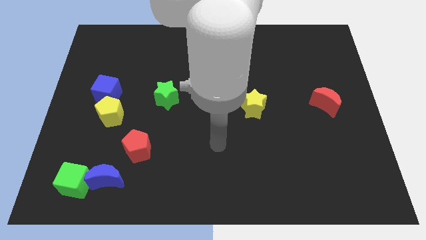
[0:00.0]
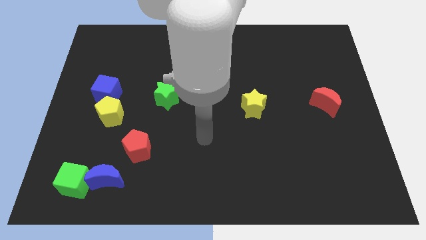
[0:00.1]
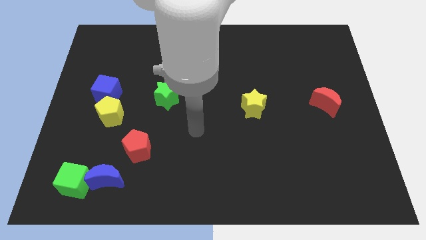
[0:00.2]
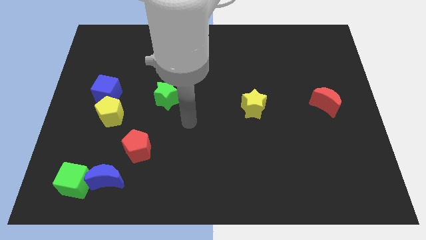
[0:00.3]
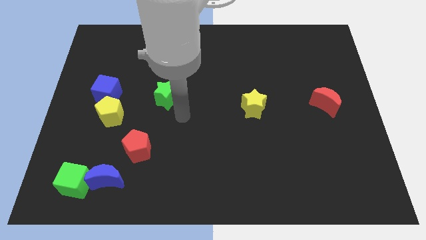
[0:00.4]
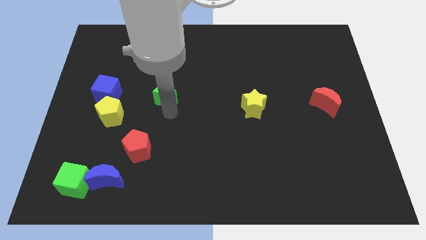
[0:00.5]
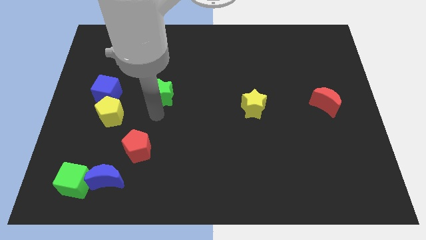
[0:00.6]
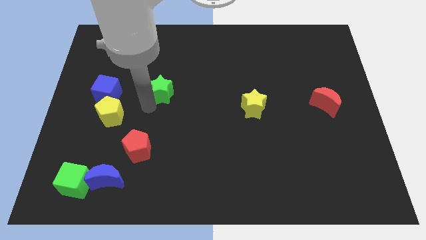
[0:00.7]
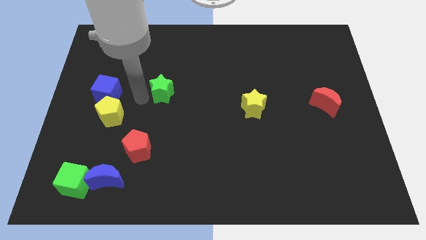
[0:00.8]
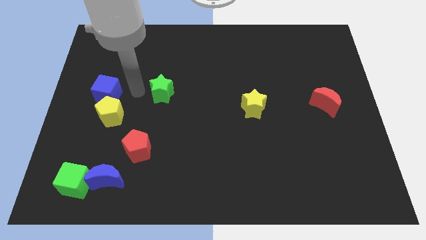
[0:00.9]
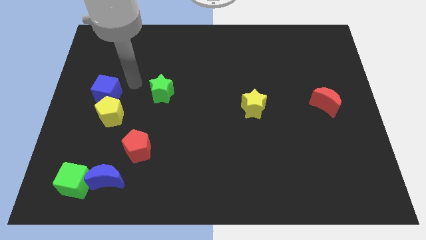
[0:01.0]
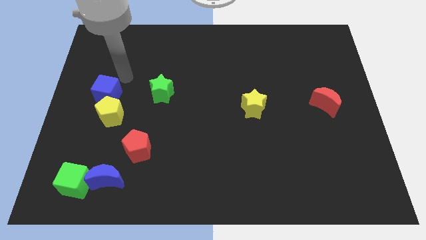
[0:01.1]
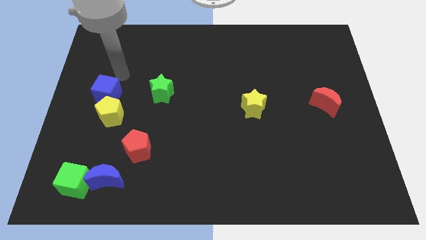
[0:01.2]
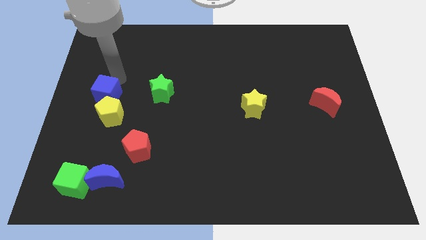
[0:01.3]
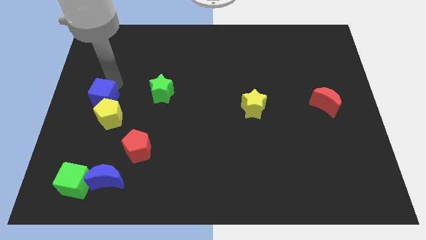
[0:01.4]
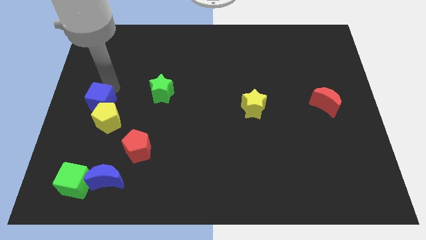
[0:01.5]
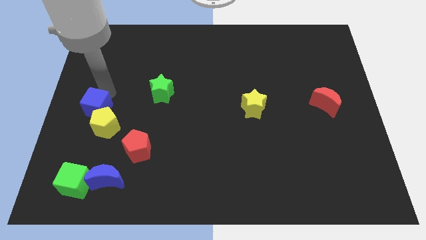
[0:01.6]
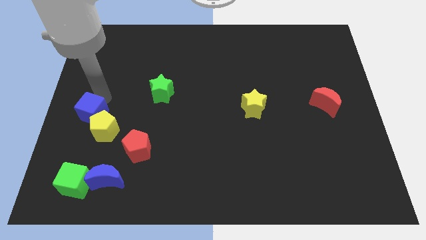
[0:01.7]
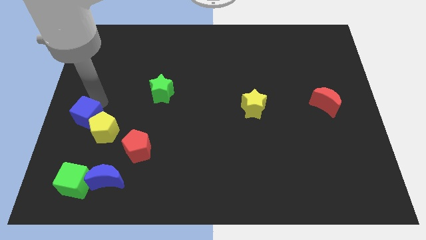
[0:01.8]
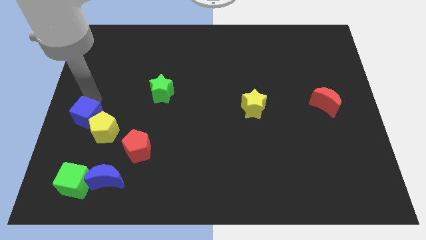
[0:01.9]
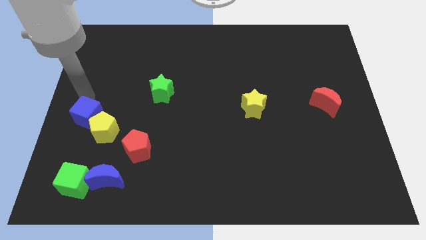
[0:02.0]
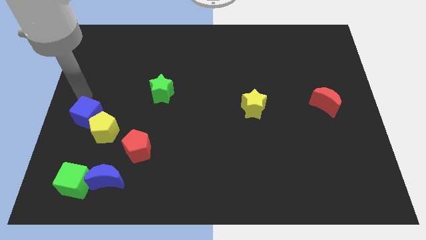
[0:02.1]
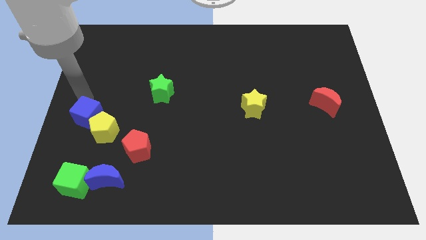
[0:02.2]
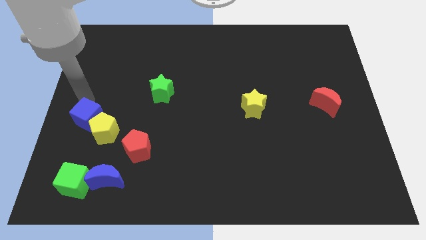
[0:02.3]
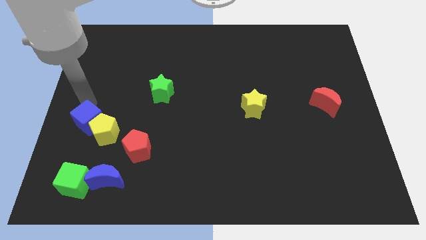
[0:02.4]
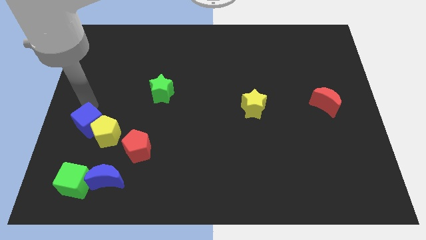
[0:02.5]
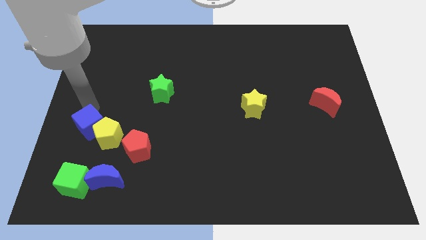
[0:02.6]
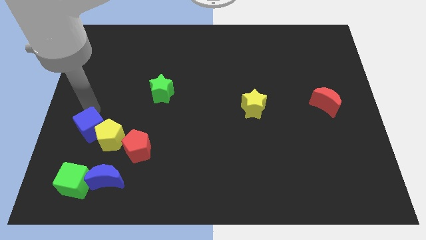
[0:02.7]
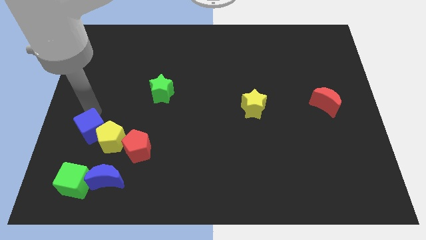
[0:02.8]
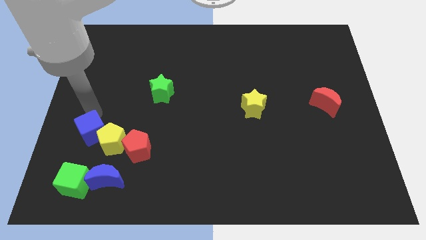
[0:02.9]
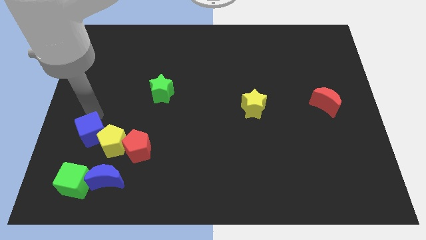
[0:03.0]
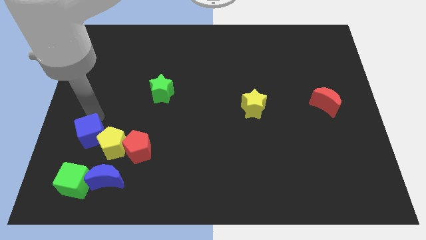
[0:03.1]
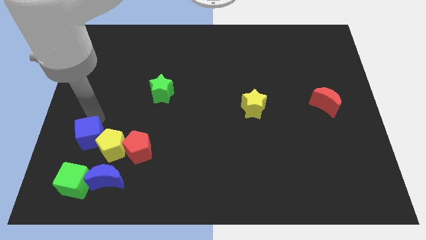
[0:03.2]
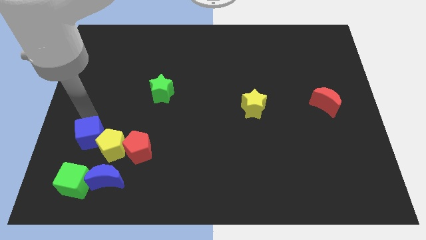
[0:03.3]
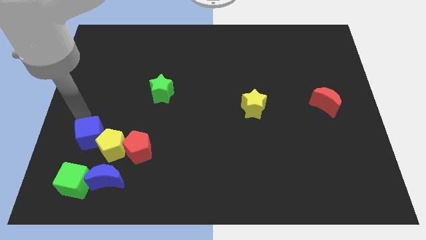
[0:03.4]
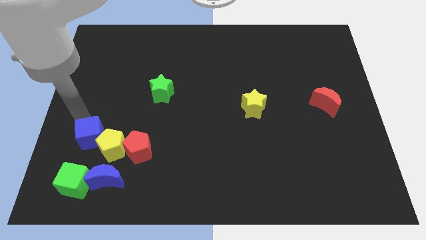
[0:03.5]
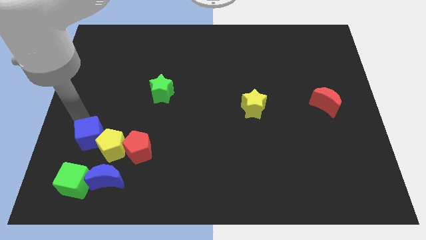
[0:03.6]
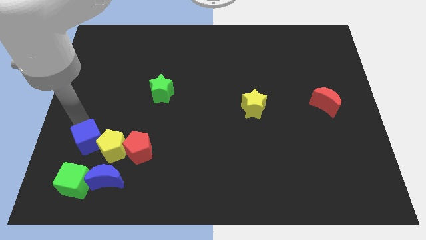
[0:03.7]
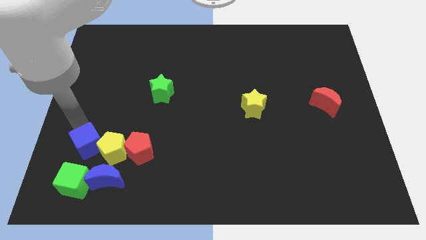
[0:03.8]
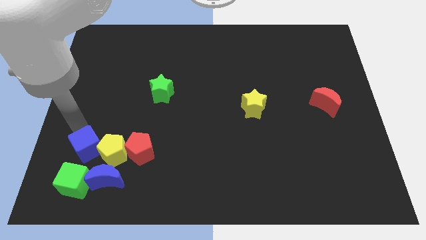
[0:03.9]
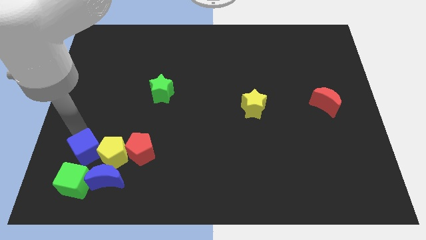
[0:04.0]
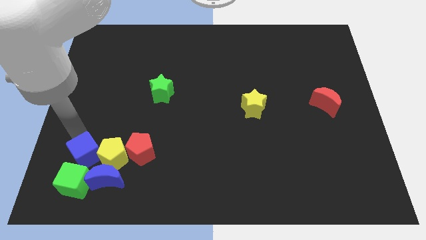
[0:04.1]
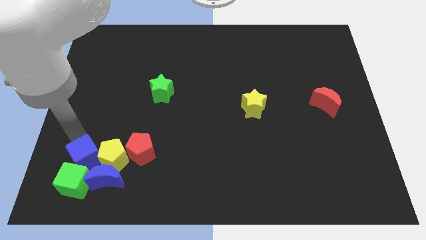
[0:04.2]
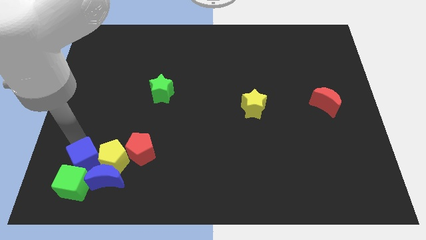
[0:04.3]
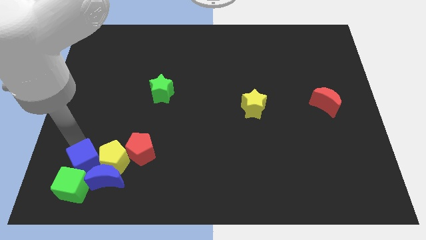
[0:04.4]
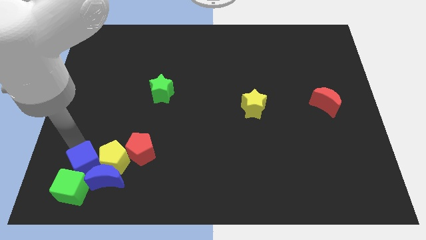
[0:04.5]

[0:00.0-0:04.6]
put the blue cube towards the blue moon

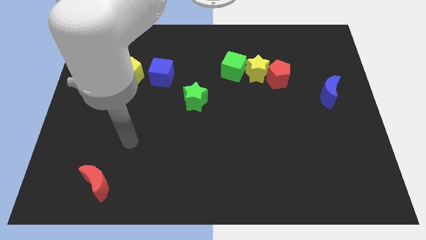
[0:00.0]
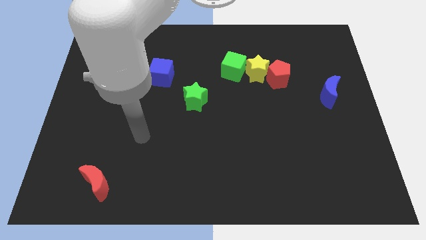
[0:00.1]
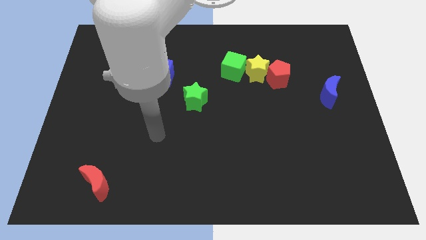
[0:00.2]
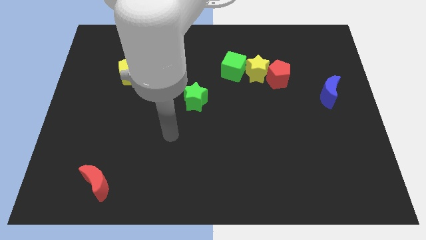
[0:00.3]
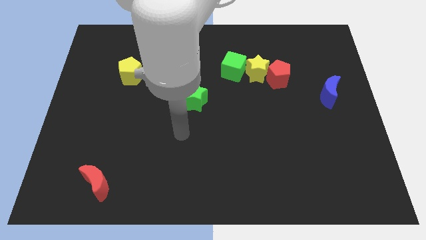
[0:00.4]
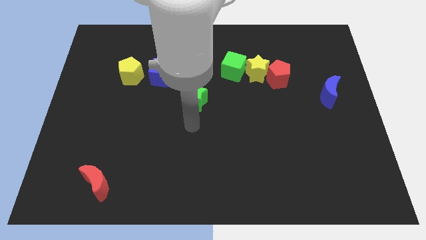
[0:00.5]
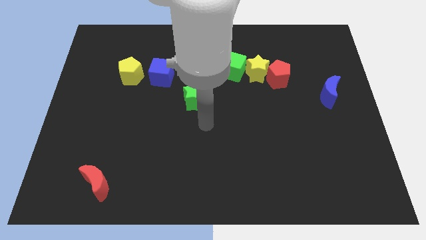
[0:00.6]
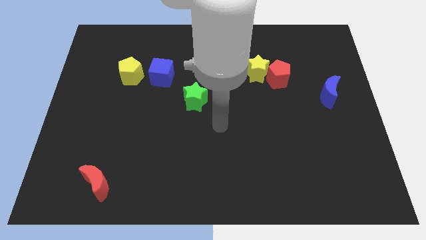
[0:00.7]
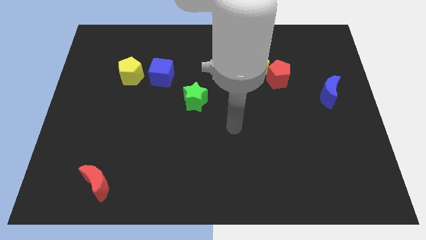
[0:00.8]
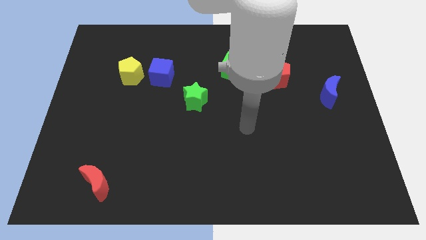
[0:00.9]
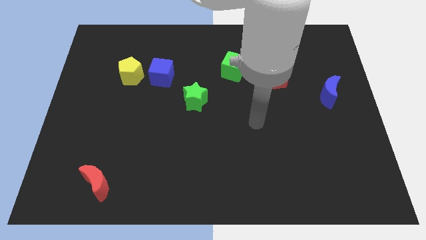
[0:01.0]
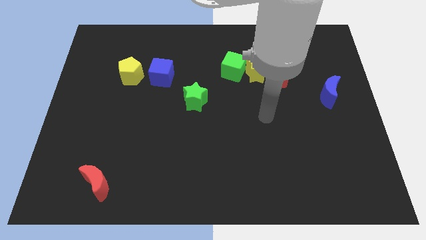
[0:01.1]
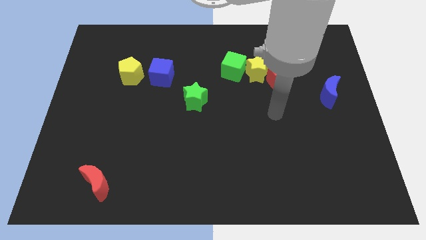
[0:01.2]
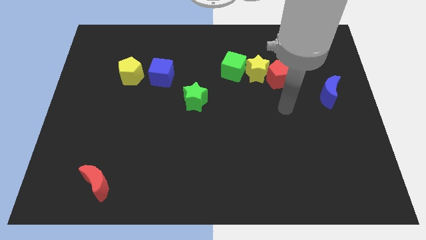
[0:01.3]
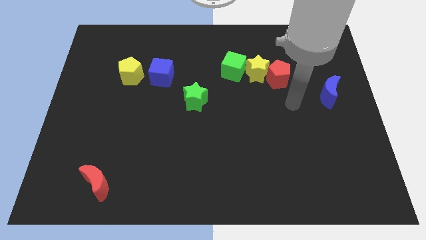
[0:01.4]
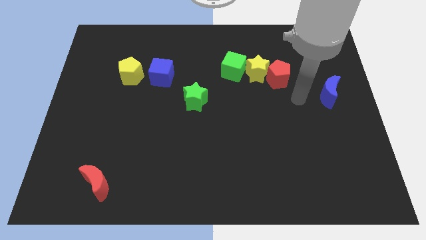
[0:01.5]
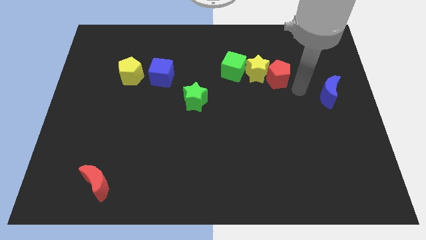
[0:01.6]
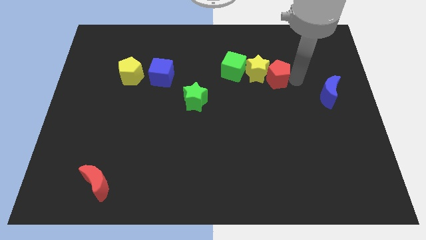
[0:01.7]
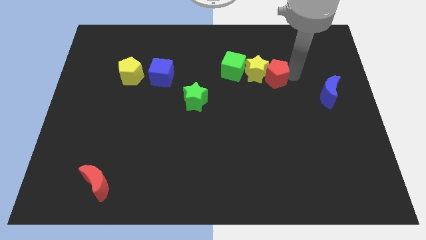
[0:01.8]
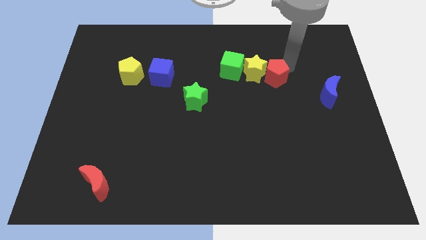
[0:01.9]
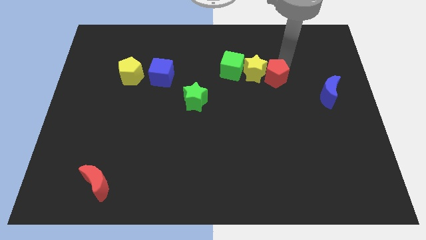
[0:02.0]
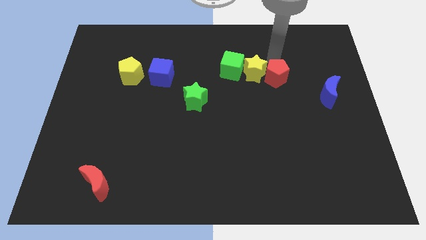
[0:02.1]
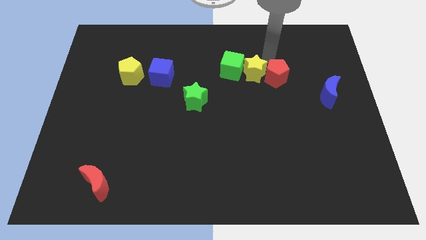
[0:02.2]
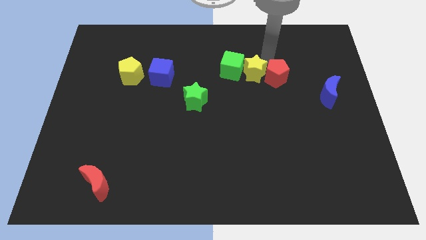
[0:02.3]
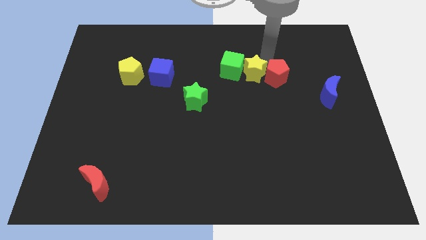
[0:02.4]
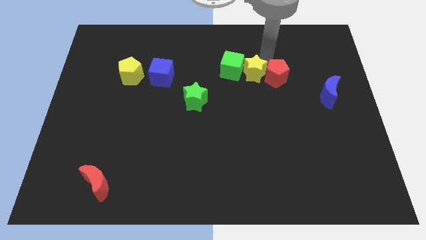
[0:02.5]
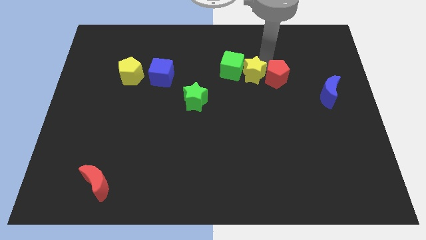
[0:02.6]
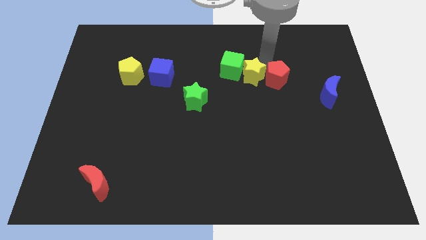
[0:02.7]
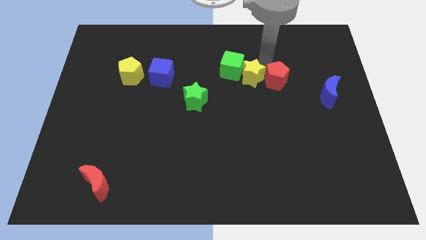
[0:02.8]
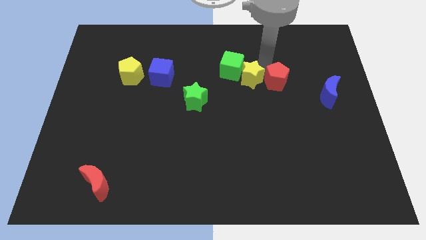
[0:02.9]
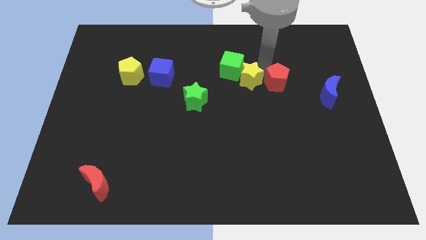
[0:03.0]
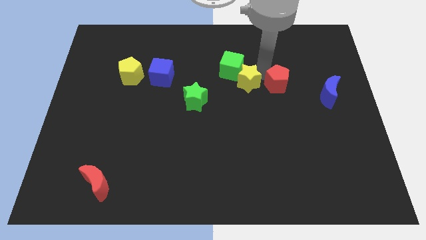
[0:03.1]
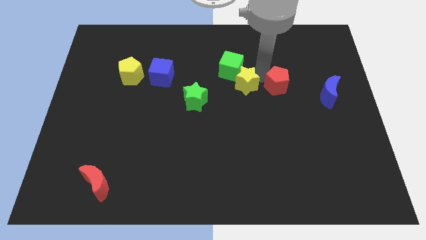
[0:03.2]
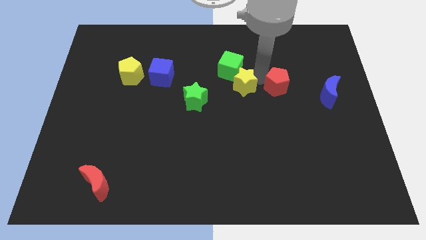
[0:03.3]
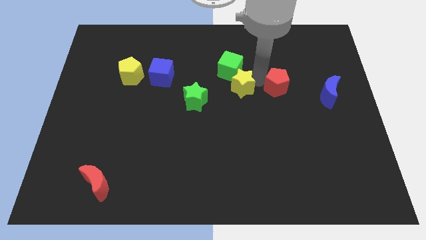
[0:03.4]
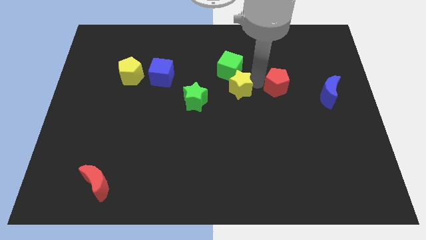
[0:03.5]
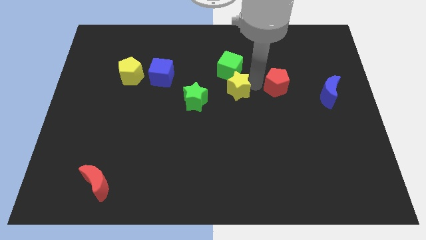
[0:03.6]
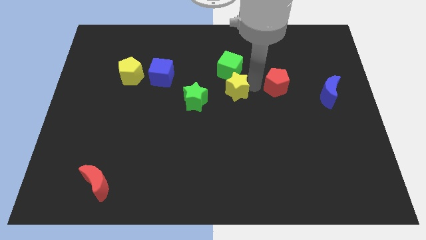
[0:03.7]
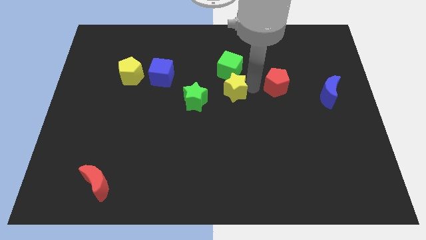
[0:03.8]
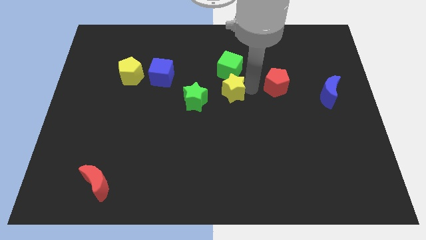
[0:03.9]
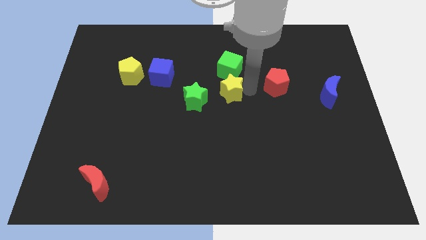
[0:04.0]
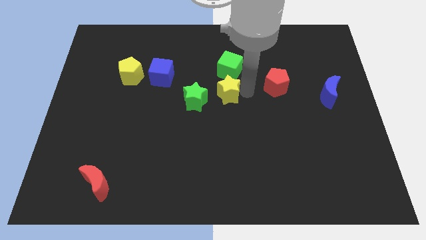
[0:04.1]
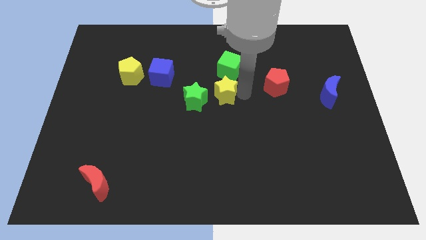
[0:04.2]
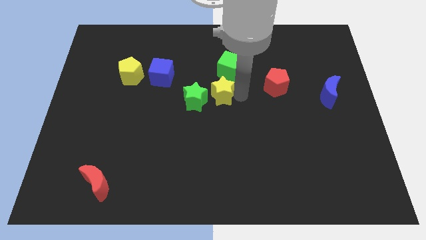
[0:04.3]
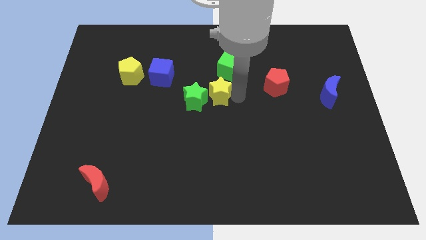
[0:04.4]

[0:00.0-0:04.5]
put the yellow star next to the green star
